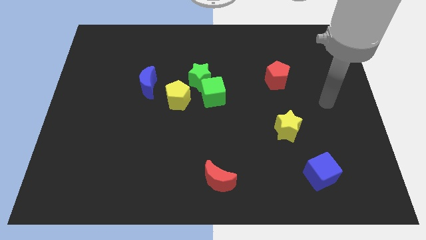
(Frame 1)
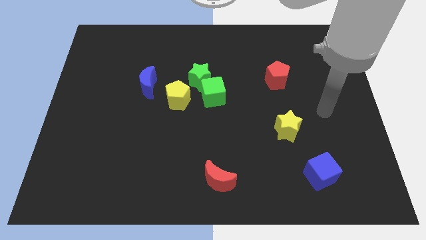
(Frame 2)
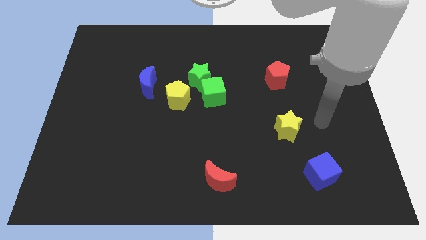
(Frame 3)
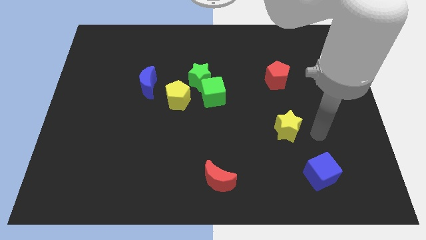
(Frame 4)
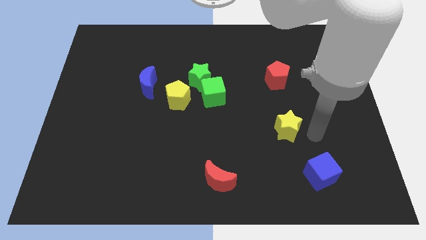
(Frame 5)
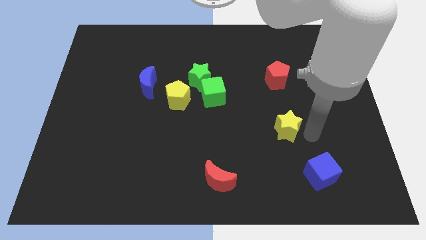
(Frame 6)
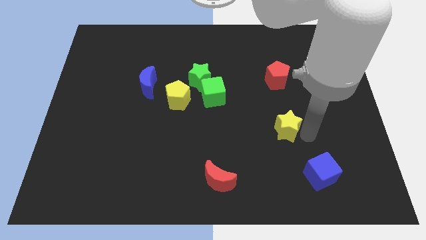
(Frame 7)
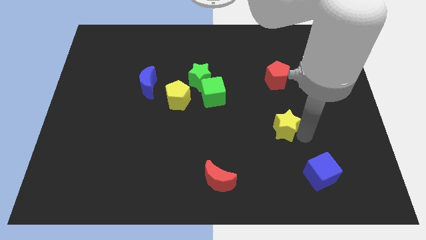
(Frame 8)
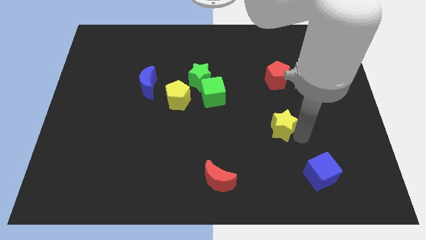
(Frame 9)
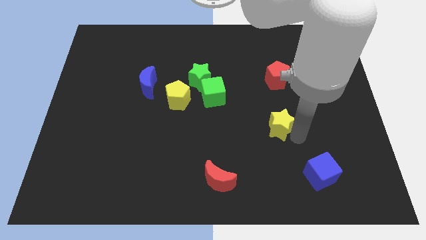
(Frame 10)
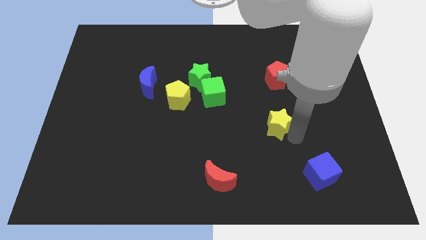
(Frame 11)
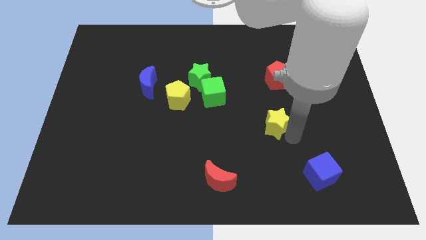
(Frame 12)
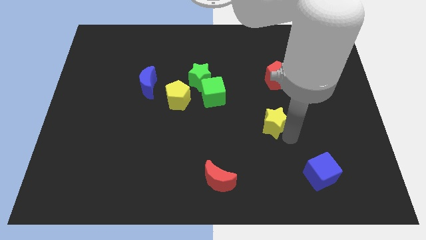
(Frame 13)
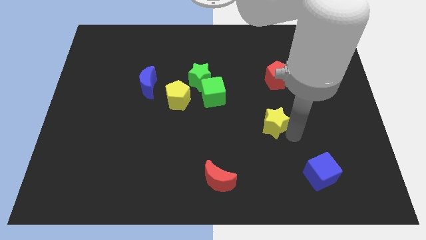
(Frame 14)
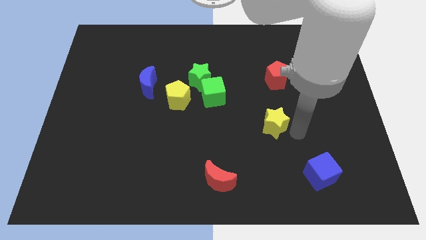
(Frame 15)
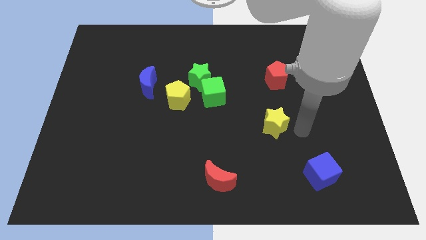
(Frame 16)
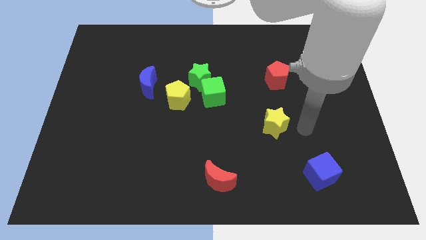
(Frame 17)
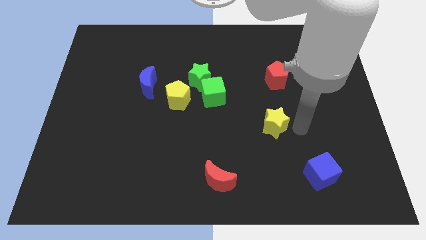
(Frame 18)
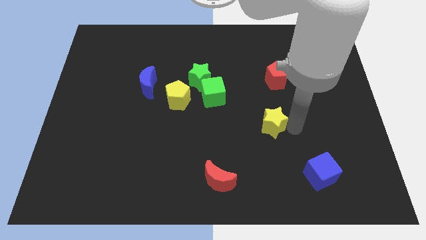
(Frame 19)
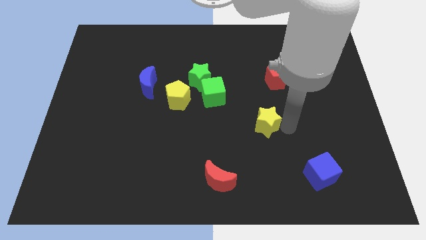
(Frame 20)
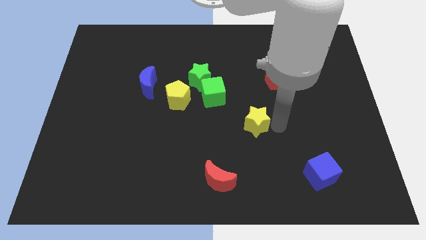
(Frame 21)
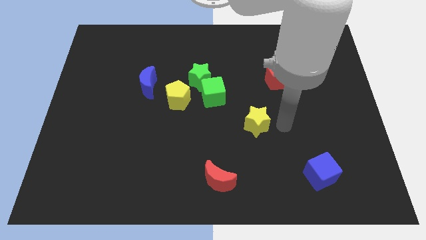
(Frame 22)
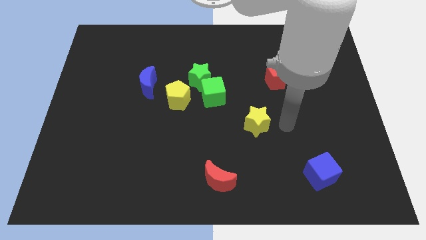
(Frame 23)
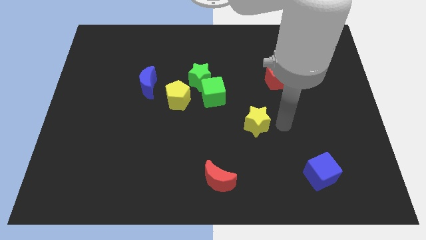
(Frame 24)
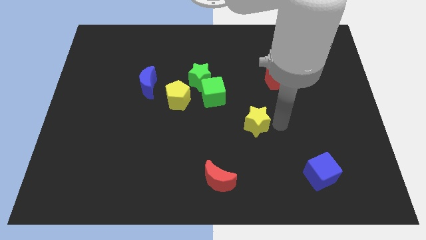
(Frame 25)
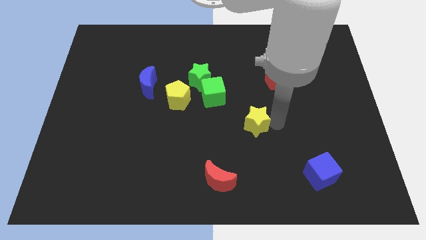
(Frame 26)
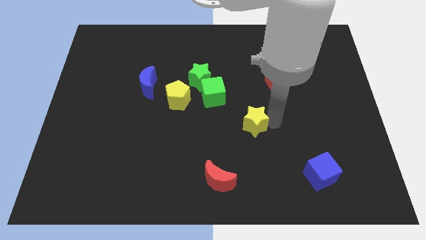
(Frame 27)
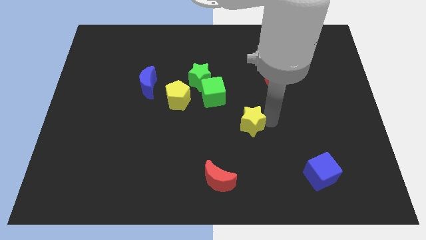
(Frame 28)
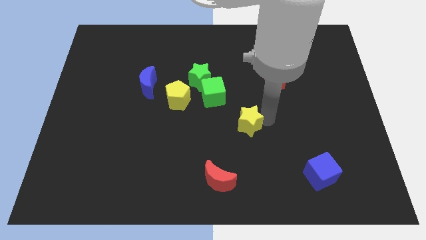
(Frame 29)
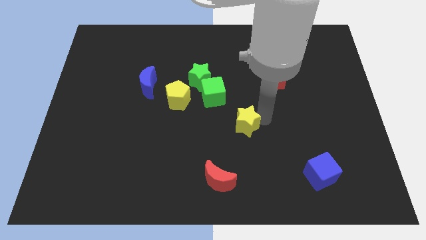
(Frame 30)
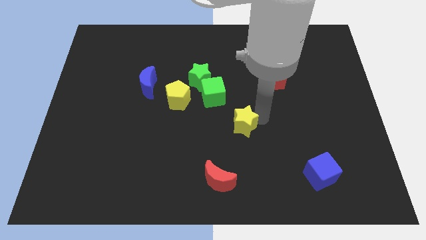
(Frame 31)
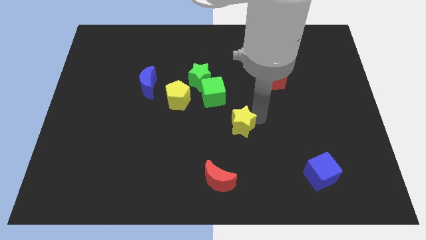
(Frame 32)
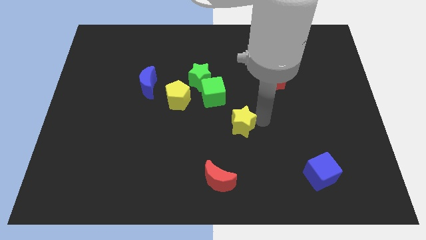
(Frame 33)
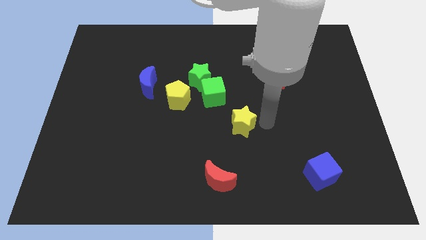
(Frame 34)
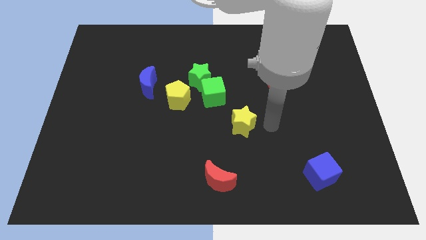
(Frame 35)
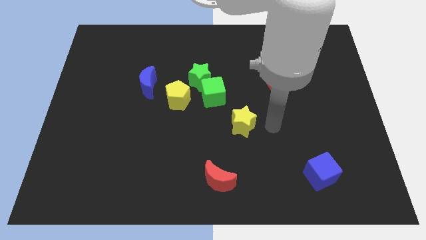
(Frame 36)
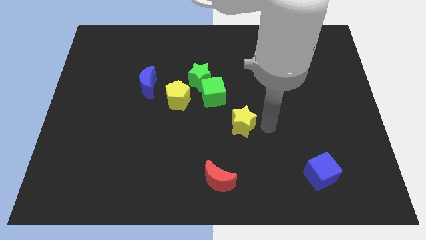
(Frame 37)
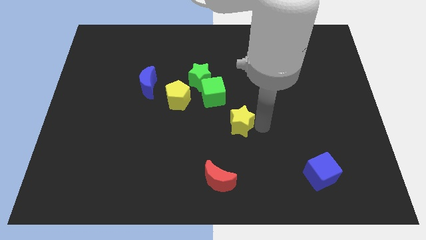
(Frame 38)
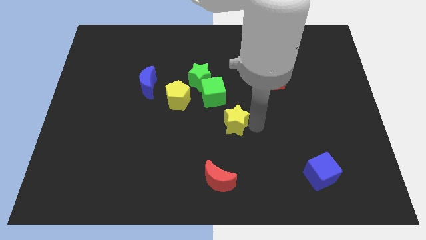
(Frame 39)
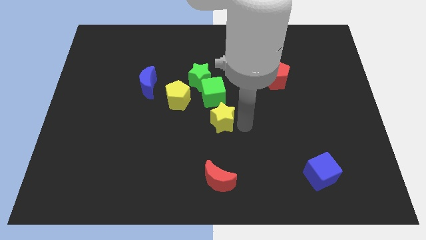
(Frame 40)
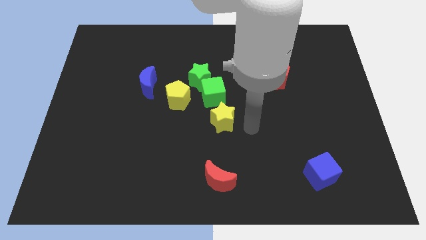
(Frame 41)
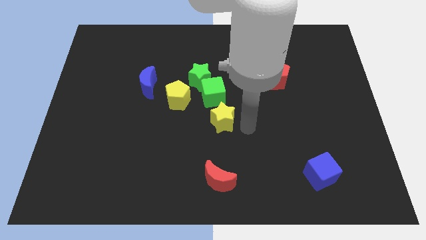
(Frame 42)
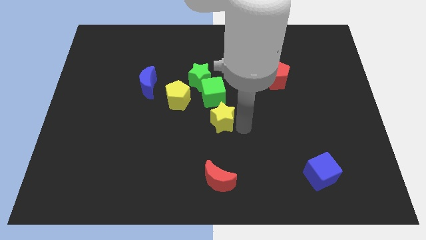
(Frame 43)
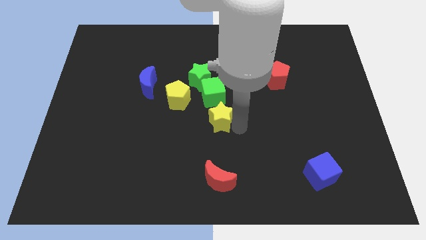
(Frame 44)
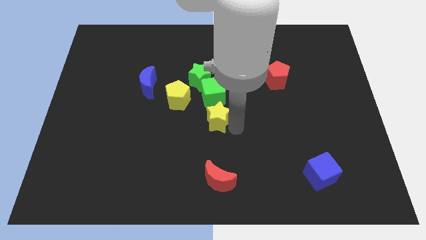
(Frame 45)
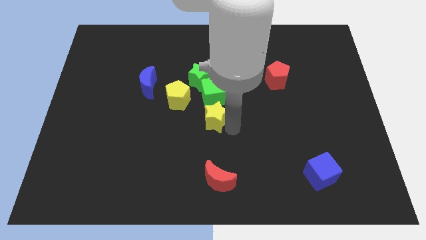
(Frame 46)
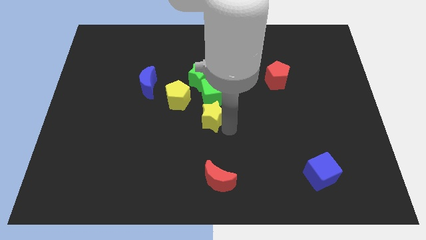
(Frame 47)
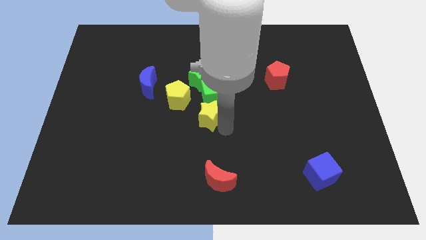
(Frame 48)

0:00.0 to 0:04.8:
push the yellow star to the bottom left of the green cube

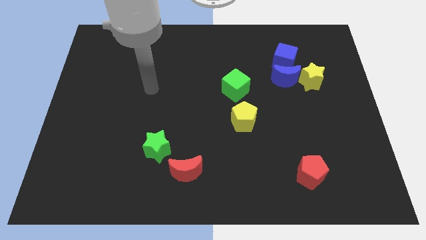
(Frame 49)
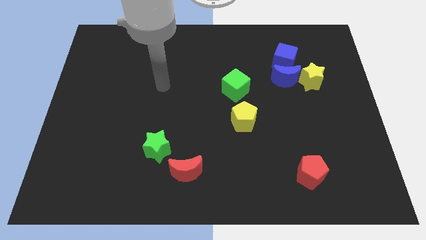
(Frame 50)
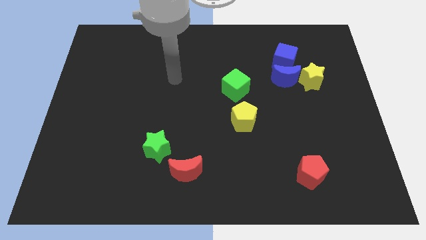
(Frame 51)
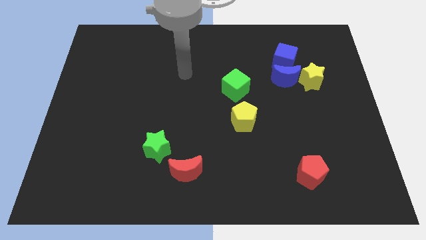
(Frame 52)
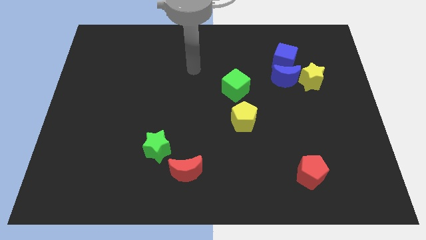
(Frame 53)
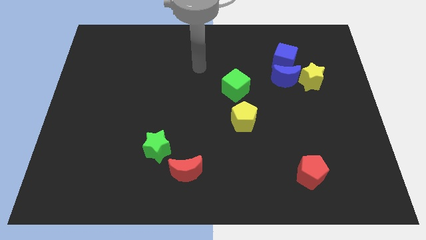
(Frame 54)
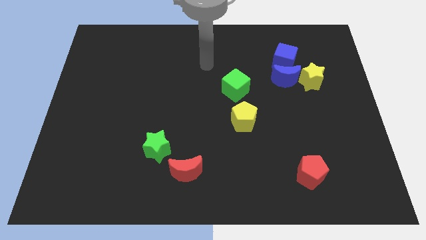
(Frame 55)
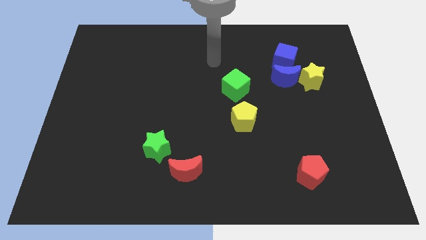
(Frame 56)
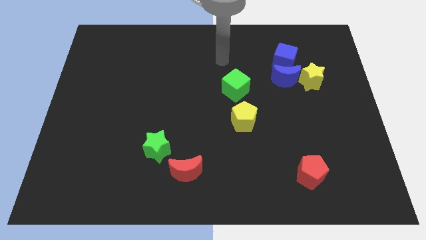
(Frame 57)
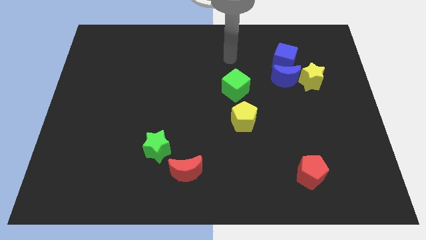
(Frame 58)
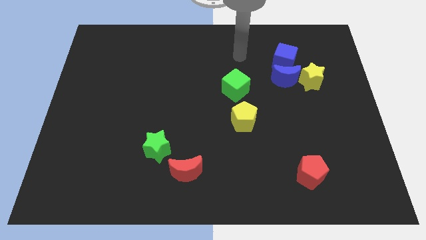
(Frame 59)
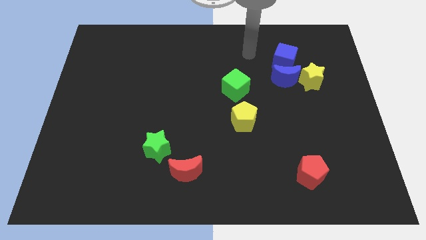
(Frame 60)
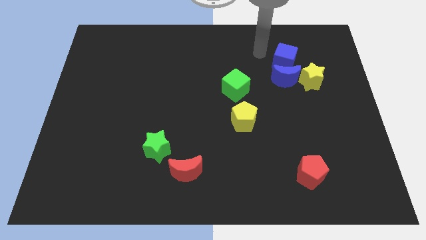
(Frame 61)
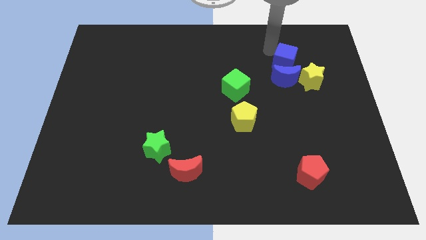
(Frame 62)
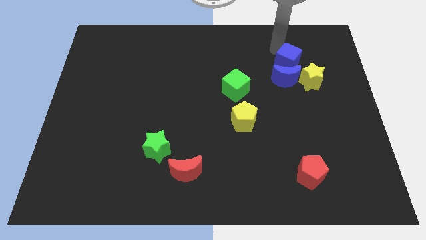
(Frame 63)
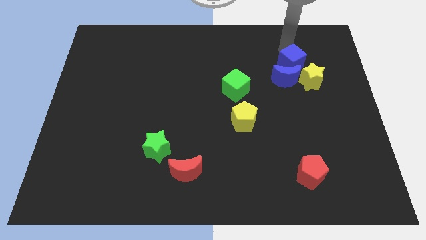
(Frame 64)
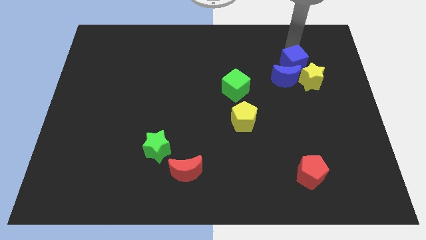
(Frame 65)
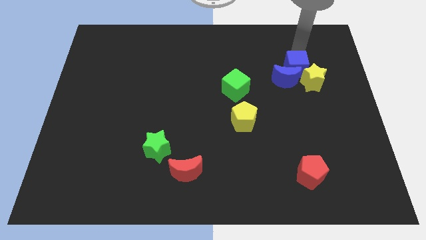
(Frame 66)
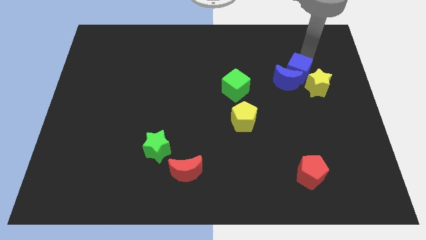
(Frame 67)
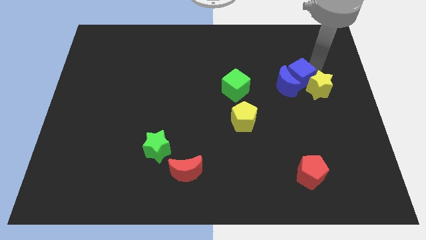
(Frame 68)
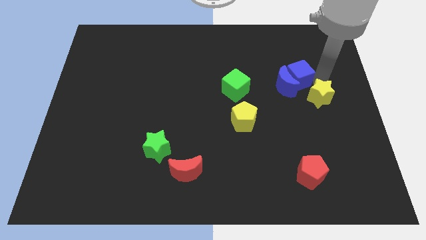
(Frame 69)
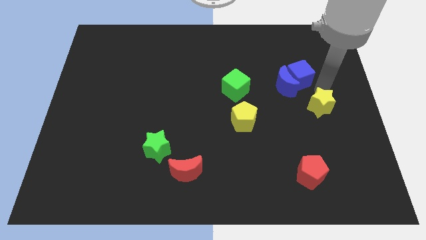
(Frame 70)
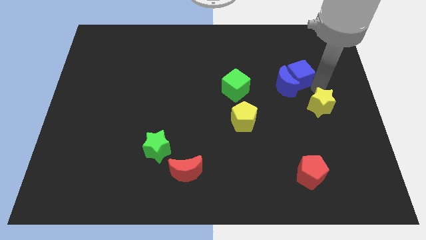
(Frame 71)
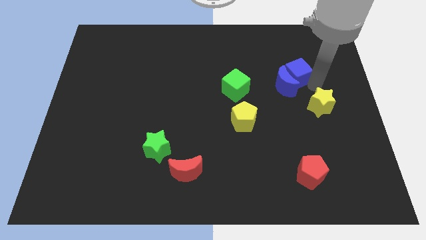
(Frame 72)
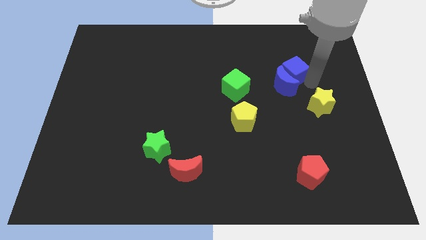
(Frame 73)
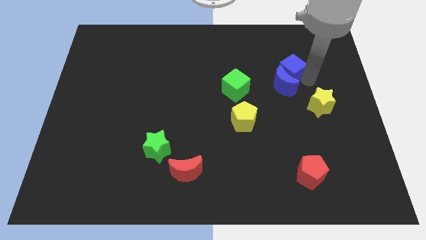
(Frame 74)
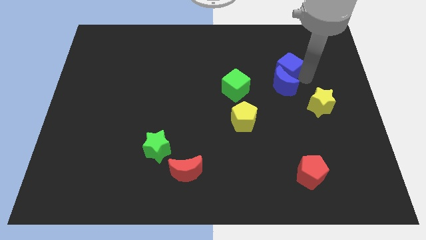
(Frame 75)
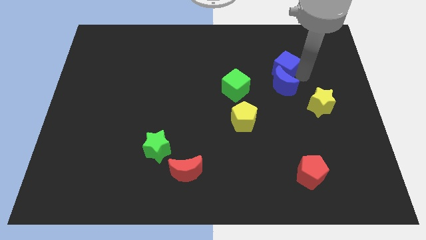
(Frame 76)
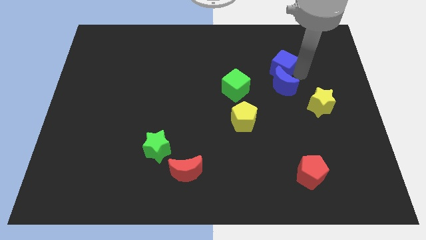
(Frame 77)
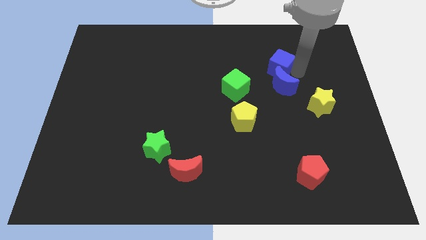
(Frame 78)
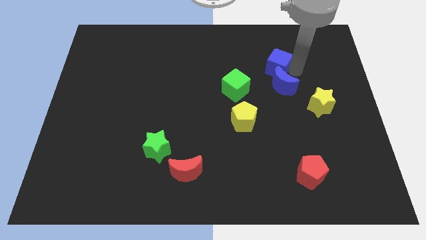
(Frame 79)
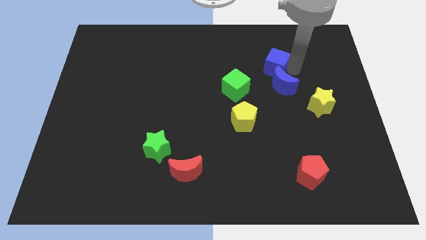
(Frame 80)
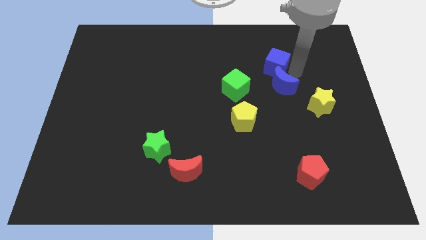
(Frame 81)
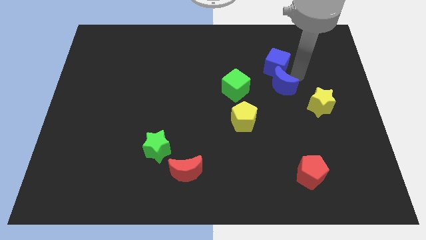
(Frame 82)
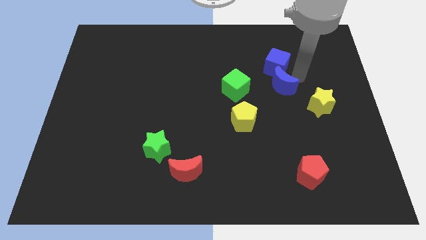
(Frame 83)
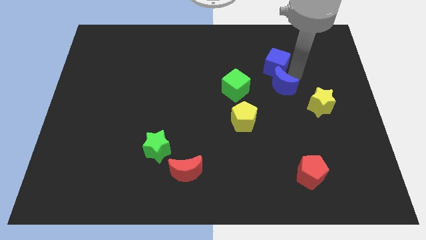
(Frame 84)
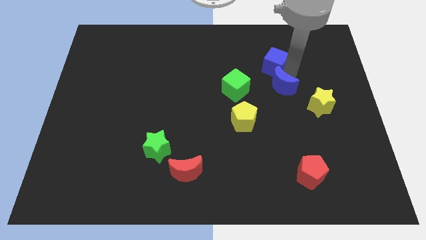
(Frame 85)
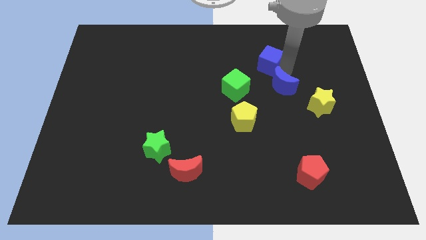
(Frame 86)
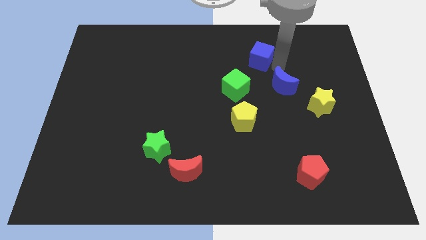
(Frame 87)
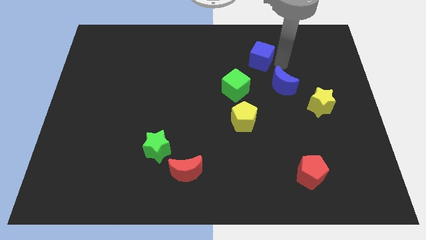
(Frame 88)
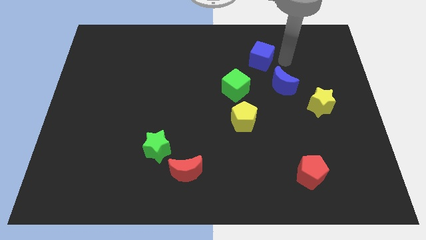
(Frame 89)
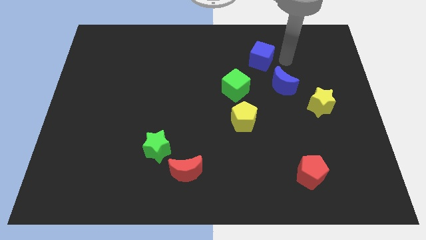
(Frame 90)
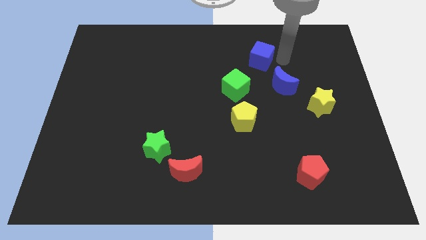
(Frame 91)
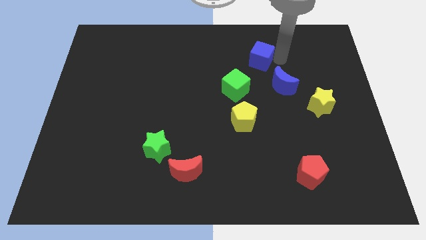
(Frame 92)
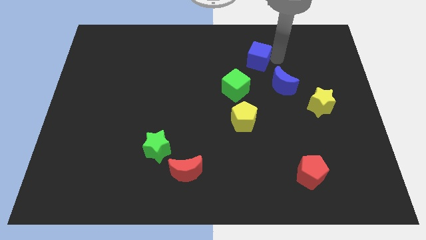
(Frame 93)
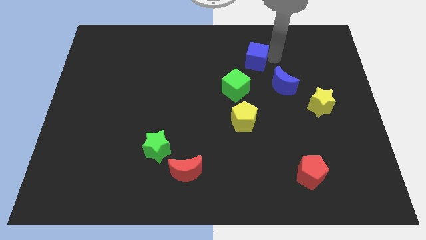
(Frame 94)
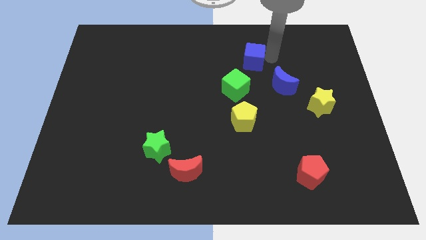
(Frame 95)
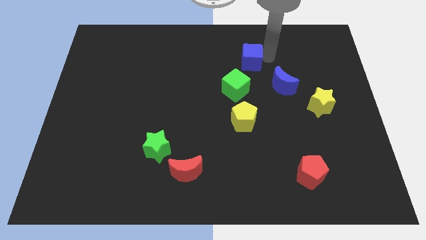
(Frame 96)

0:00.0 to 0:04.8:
put the blue cube to the top side of the green cube
